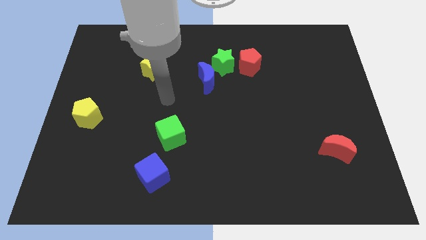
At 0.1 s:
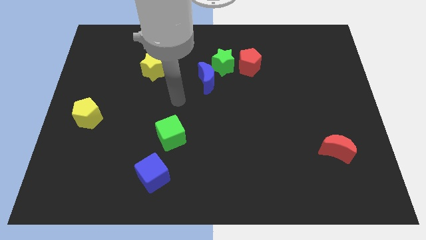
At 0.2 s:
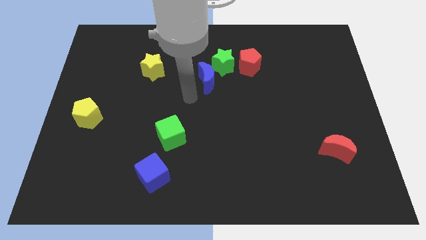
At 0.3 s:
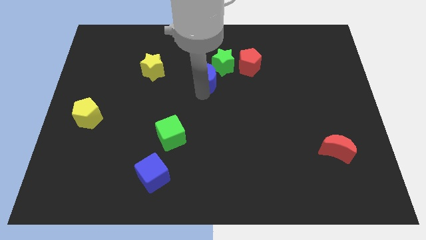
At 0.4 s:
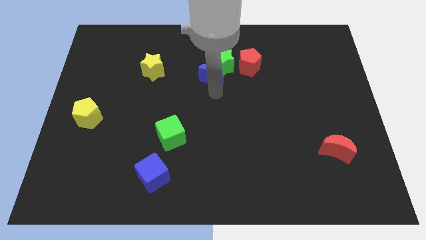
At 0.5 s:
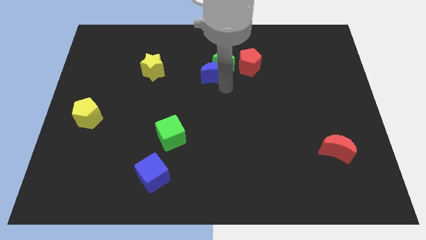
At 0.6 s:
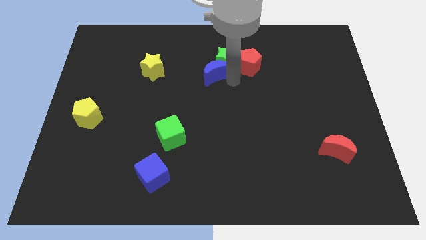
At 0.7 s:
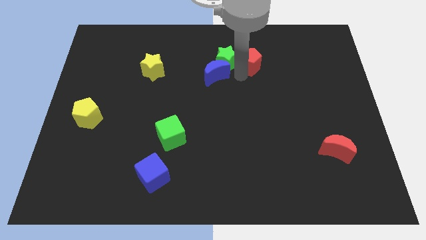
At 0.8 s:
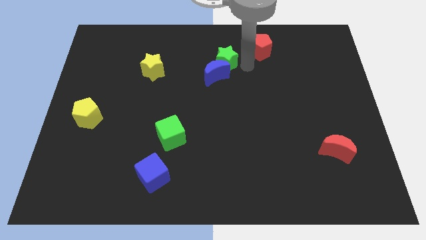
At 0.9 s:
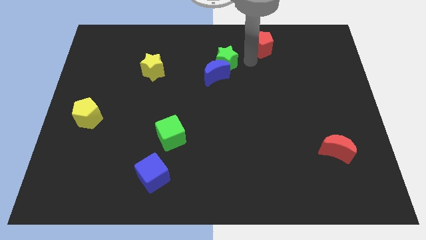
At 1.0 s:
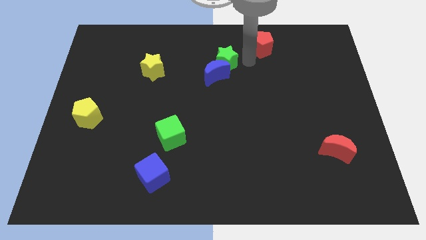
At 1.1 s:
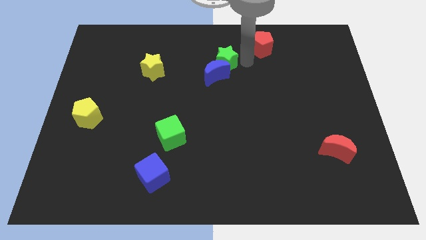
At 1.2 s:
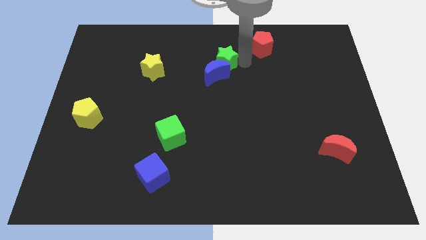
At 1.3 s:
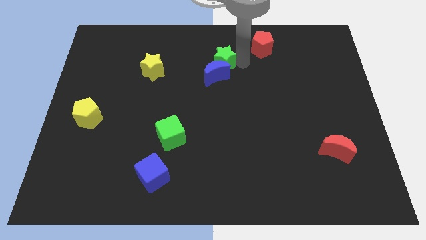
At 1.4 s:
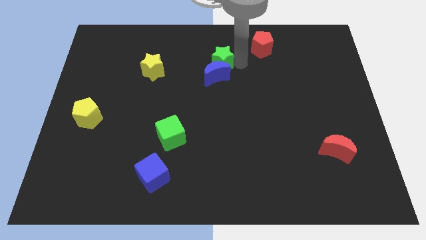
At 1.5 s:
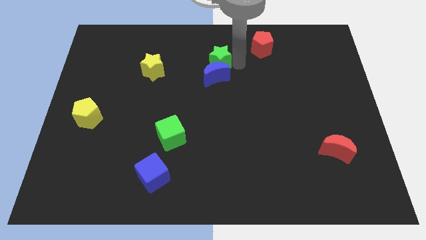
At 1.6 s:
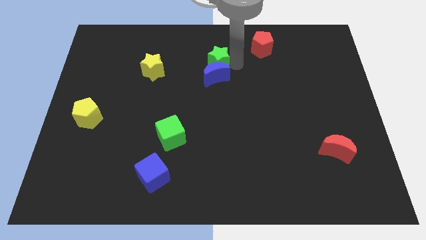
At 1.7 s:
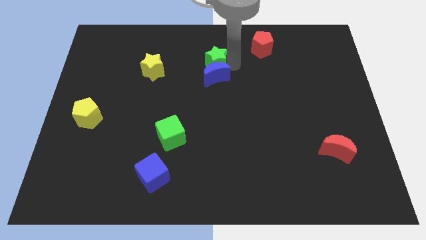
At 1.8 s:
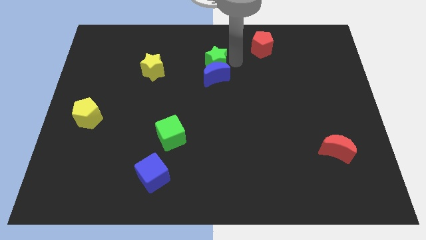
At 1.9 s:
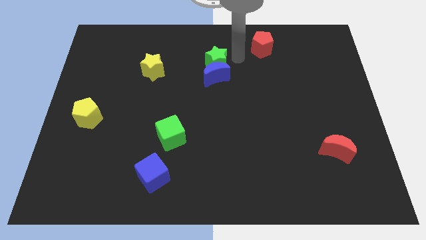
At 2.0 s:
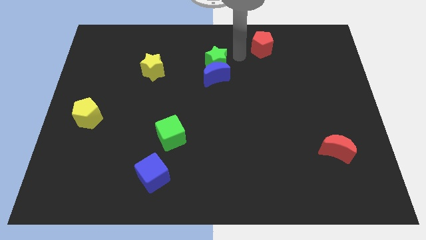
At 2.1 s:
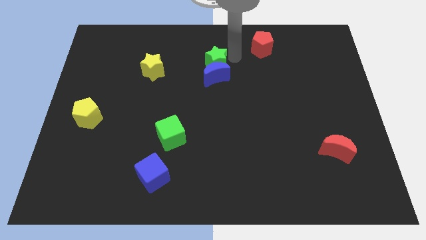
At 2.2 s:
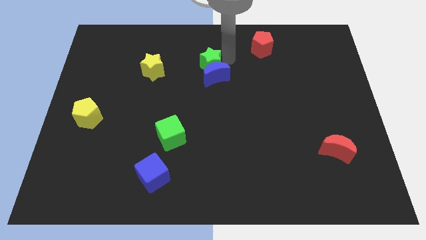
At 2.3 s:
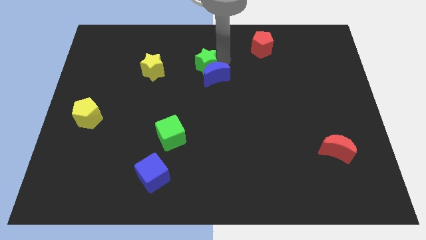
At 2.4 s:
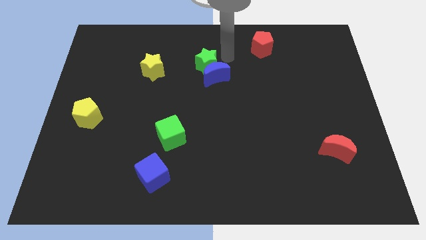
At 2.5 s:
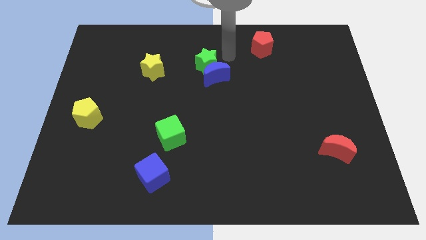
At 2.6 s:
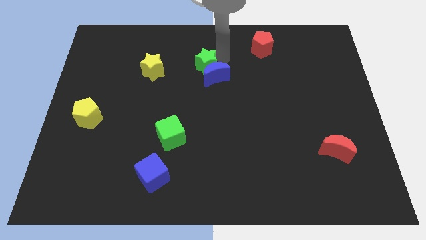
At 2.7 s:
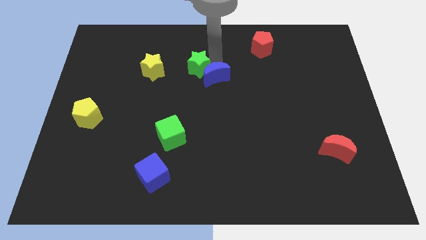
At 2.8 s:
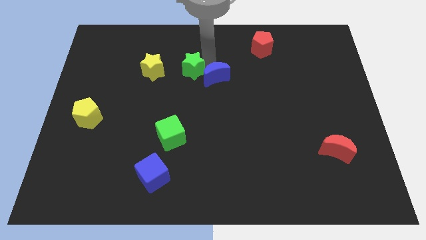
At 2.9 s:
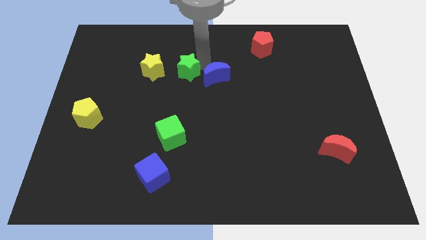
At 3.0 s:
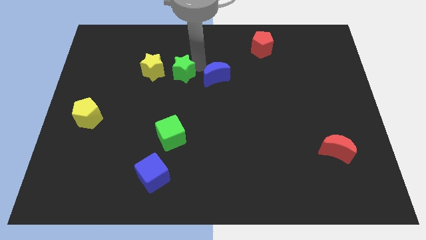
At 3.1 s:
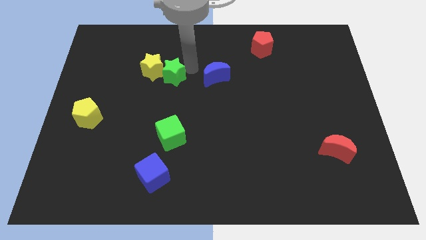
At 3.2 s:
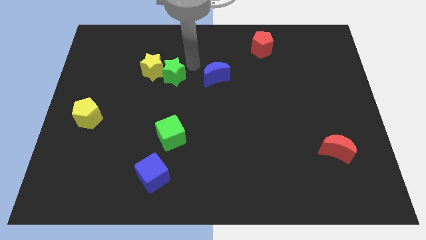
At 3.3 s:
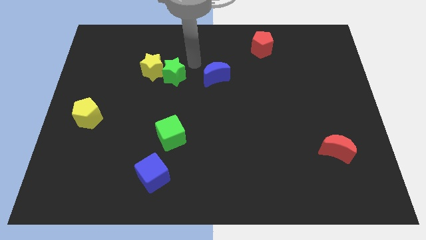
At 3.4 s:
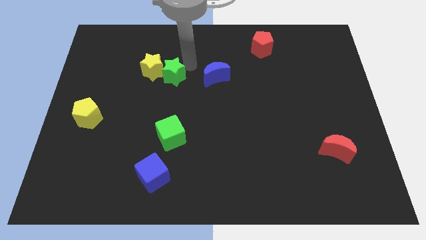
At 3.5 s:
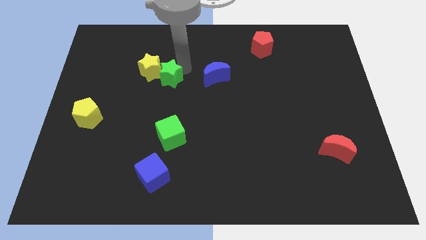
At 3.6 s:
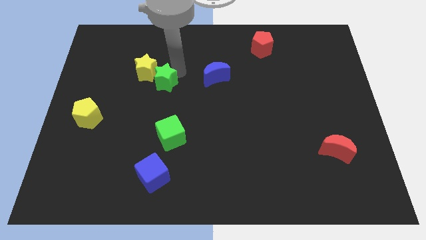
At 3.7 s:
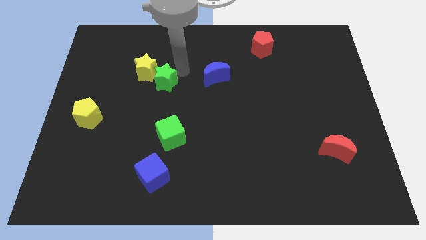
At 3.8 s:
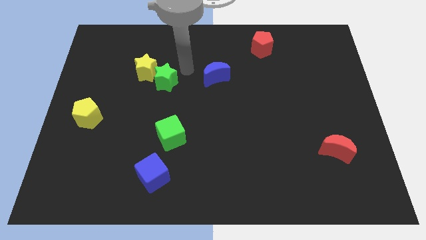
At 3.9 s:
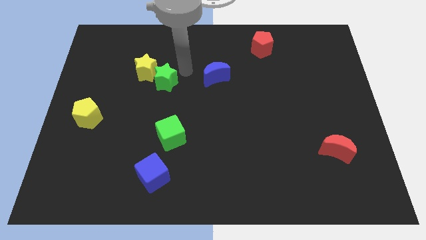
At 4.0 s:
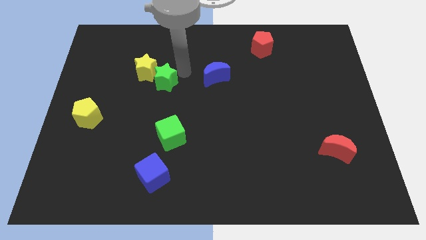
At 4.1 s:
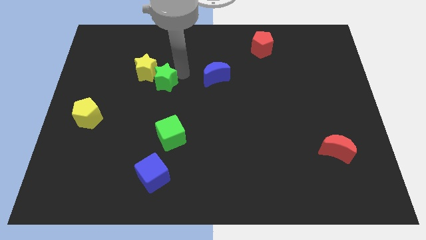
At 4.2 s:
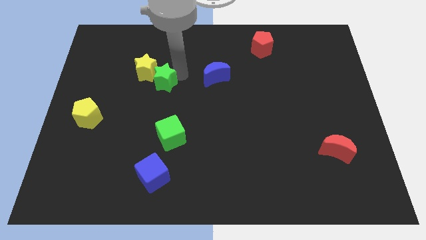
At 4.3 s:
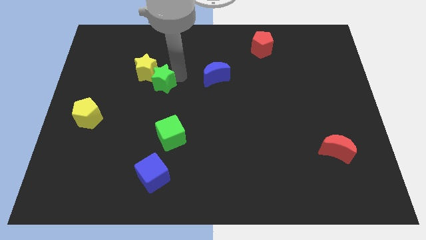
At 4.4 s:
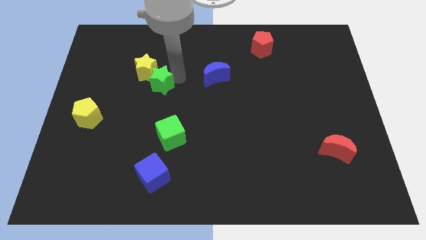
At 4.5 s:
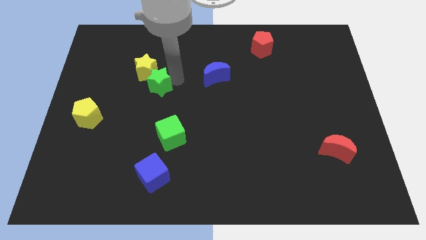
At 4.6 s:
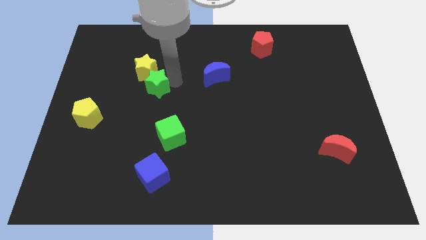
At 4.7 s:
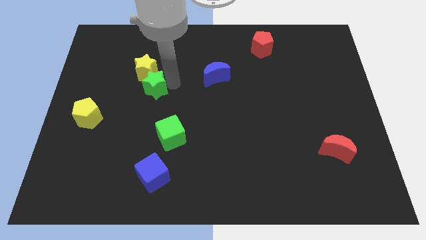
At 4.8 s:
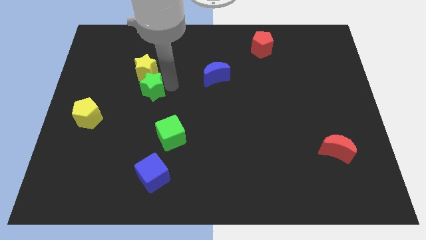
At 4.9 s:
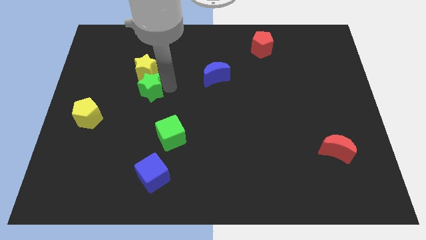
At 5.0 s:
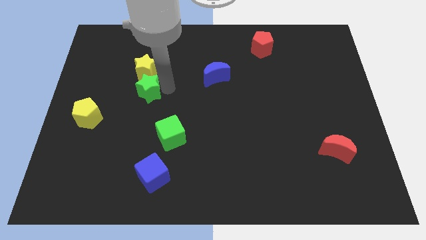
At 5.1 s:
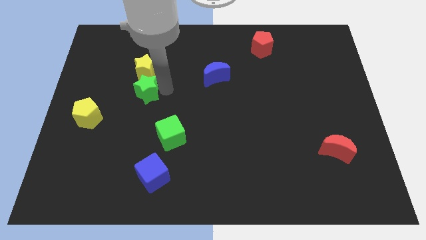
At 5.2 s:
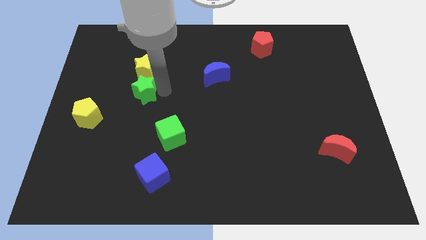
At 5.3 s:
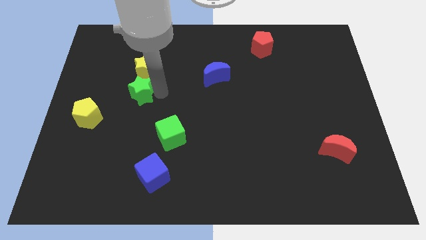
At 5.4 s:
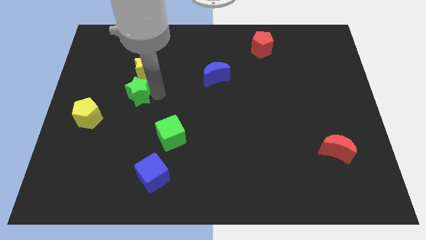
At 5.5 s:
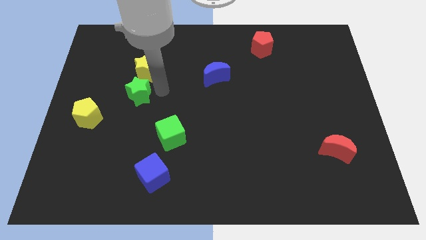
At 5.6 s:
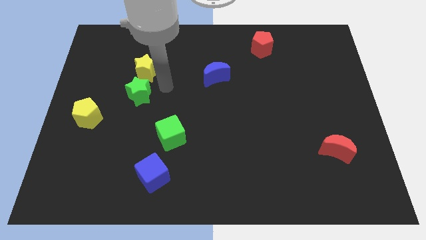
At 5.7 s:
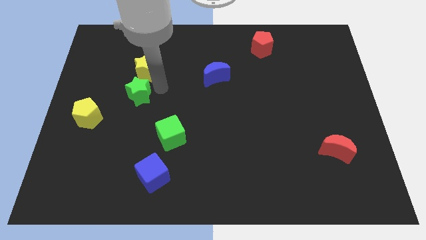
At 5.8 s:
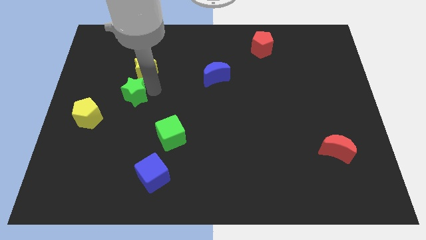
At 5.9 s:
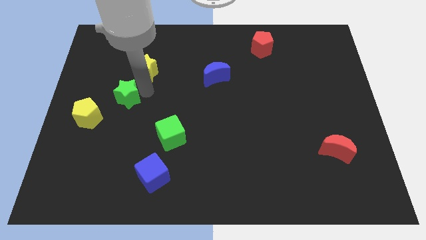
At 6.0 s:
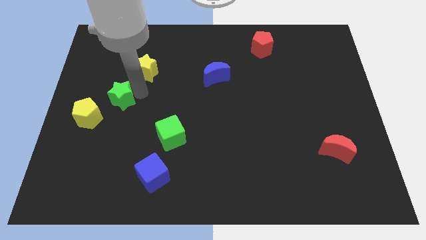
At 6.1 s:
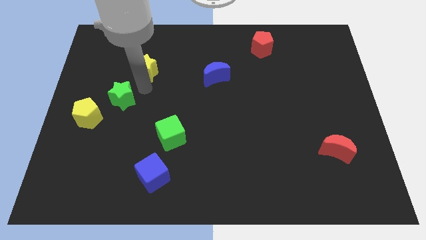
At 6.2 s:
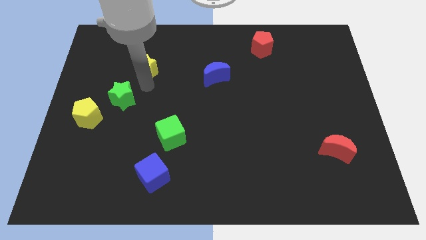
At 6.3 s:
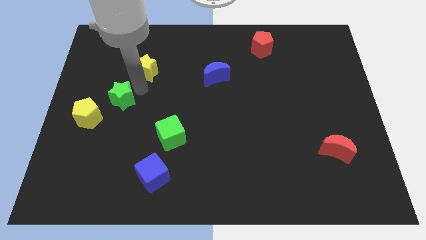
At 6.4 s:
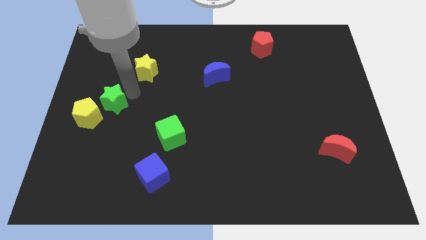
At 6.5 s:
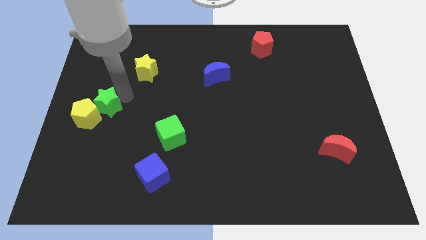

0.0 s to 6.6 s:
move the green star close to the yellow pentagon
